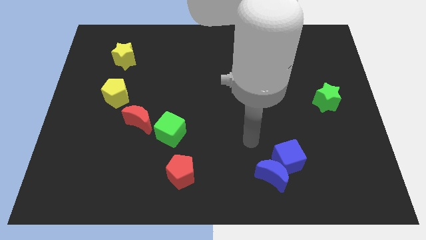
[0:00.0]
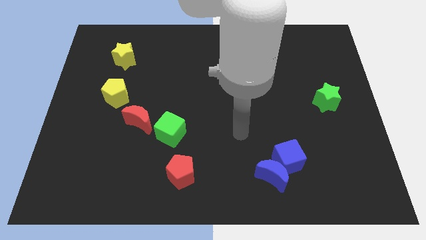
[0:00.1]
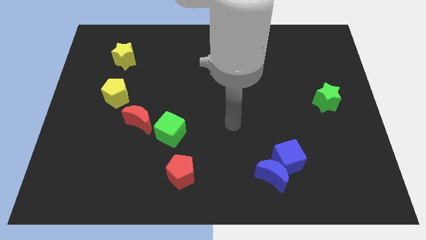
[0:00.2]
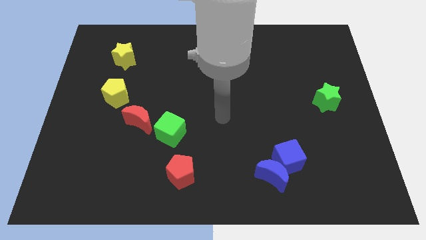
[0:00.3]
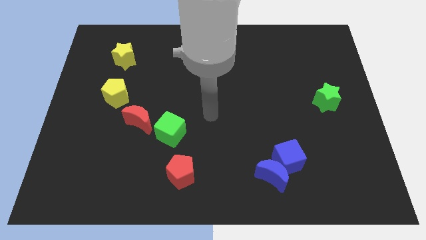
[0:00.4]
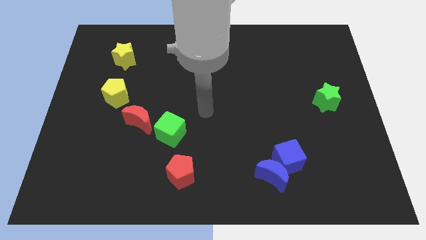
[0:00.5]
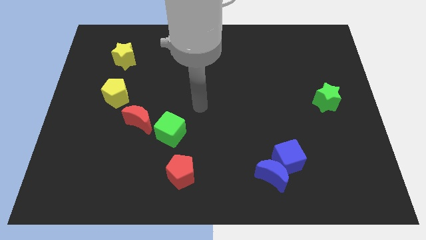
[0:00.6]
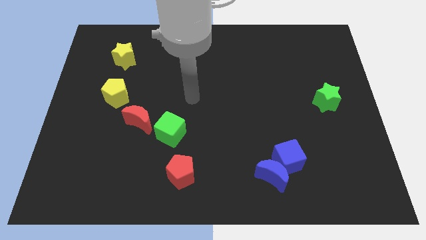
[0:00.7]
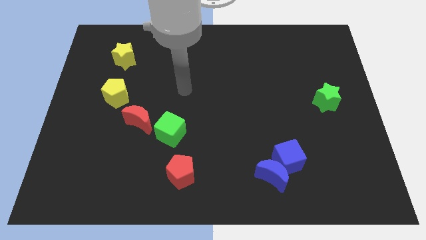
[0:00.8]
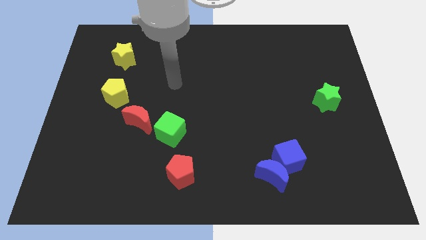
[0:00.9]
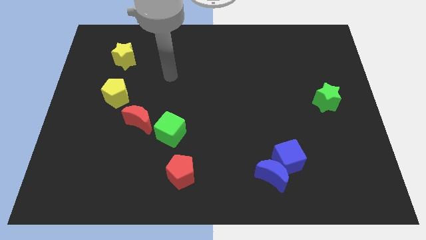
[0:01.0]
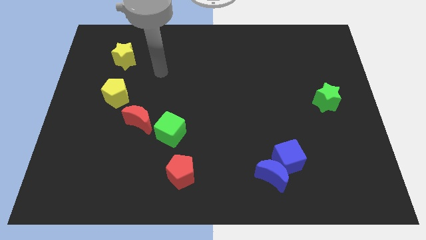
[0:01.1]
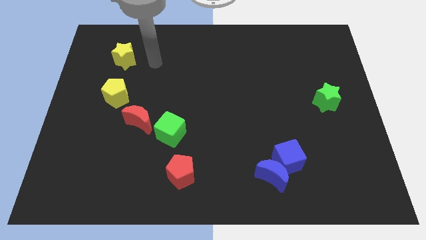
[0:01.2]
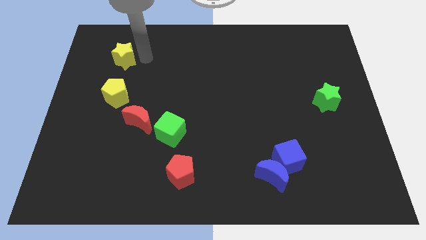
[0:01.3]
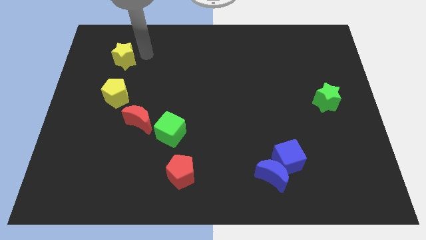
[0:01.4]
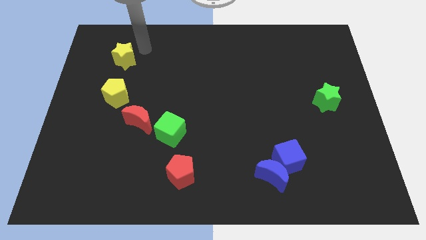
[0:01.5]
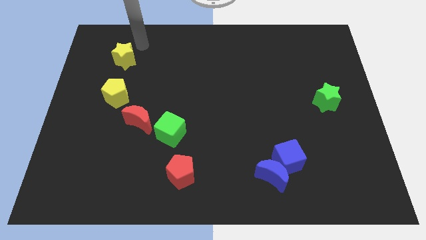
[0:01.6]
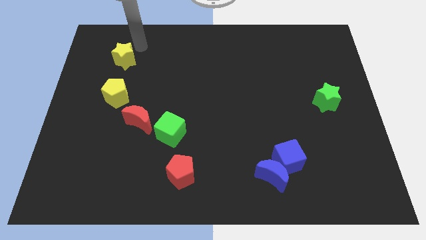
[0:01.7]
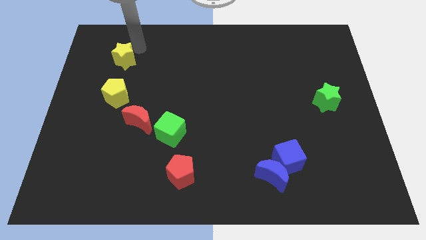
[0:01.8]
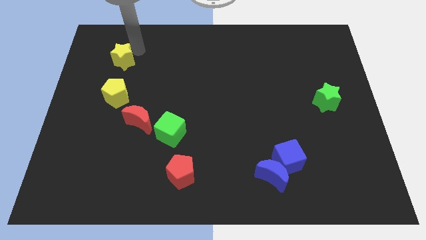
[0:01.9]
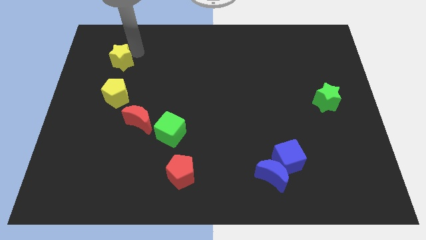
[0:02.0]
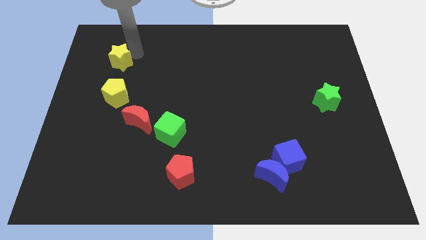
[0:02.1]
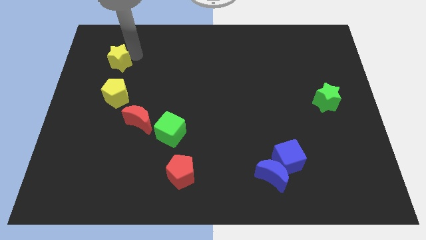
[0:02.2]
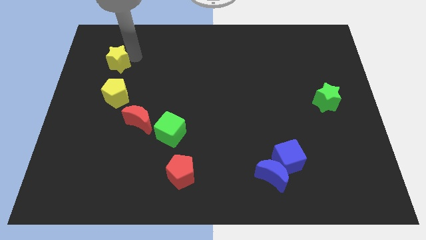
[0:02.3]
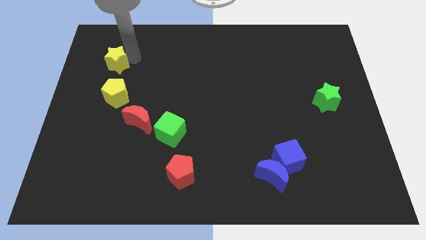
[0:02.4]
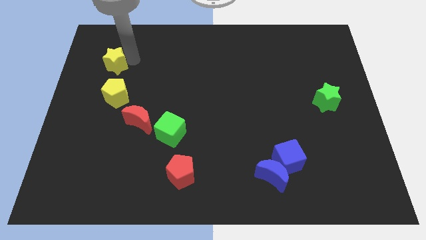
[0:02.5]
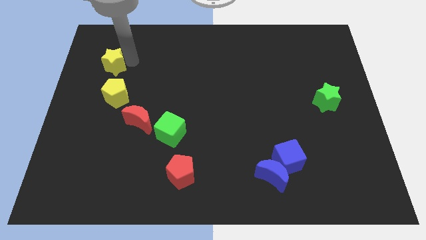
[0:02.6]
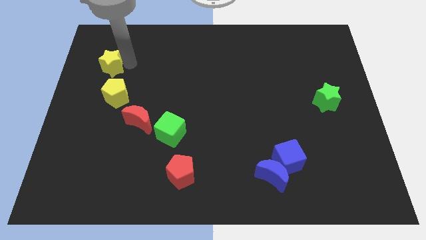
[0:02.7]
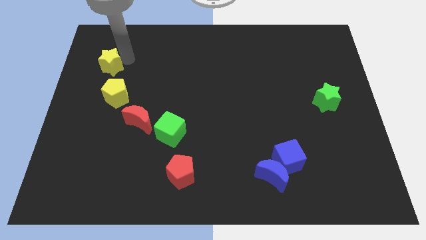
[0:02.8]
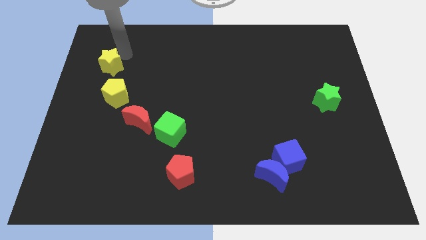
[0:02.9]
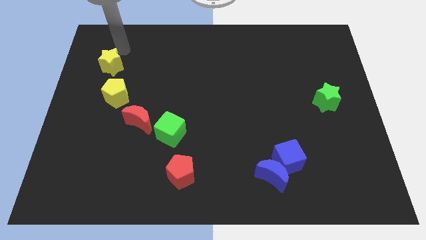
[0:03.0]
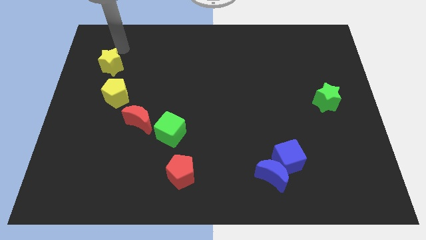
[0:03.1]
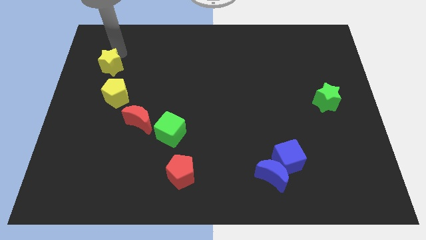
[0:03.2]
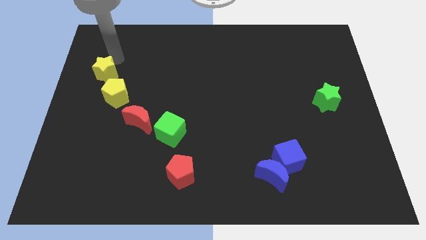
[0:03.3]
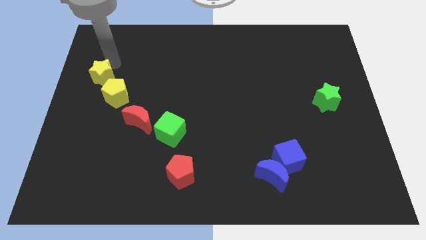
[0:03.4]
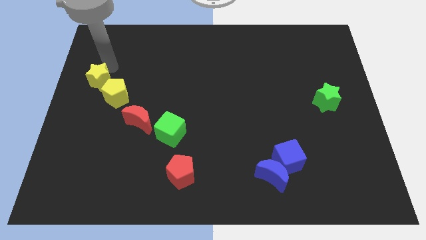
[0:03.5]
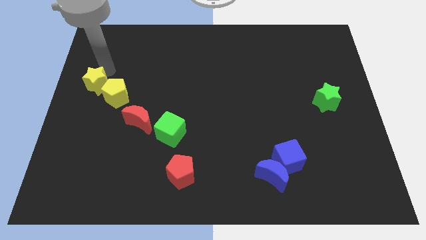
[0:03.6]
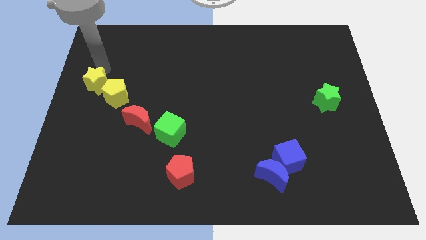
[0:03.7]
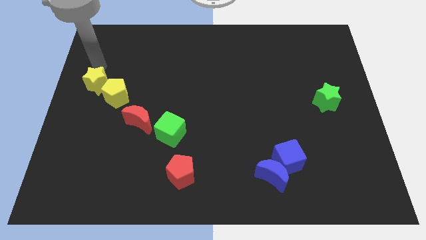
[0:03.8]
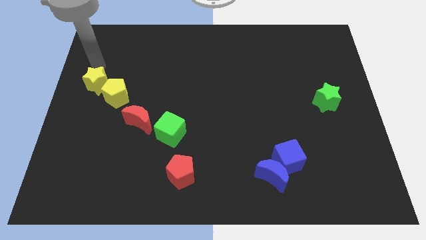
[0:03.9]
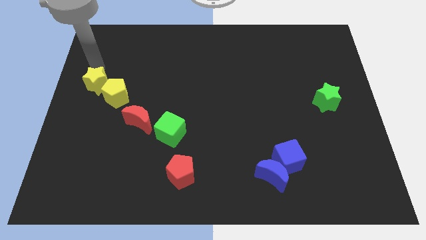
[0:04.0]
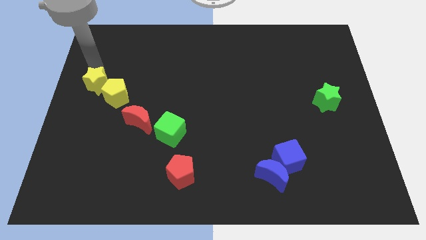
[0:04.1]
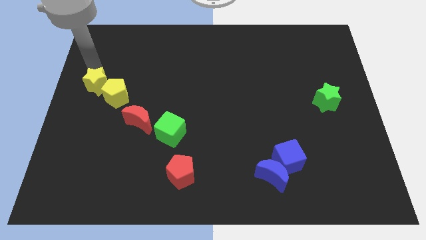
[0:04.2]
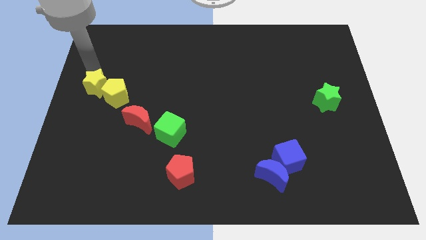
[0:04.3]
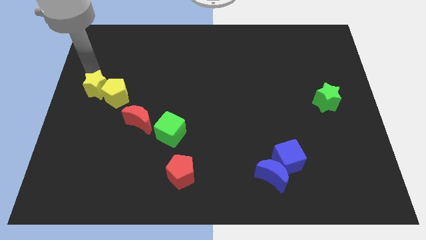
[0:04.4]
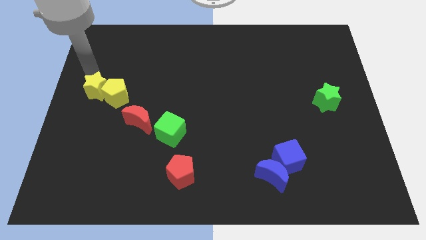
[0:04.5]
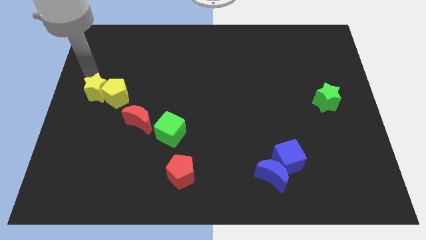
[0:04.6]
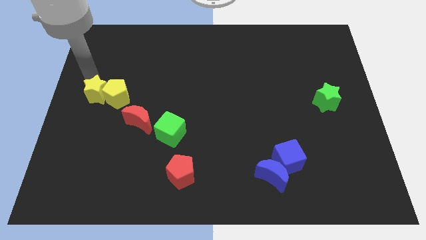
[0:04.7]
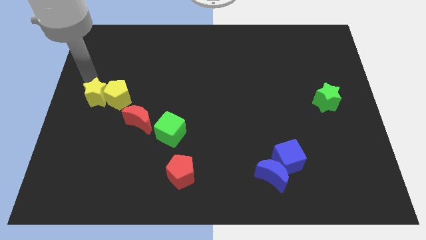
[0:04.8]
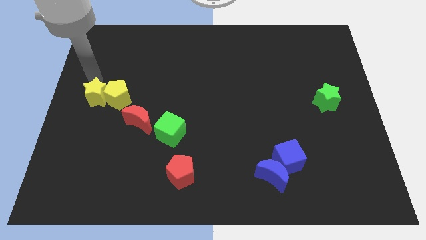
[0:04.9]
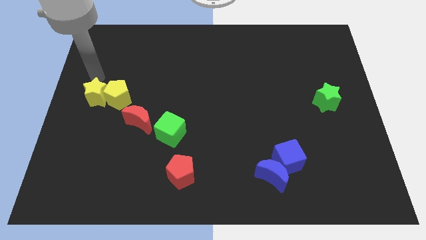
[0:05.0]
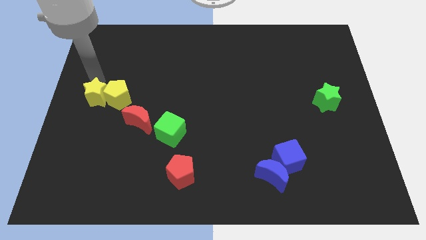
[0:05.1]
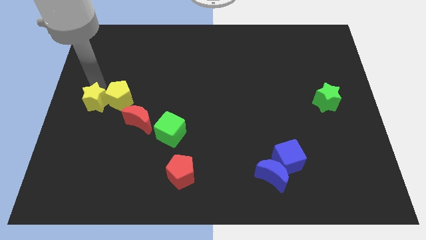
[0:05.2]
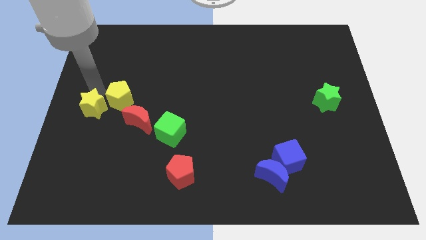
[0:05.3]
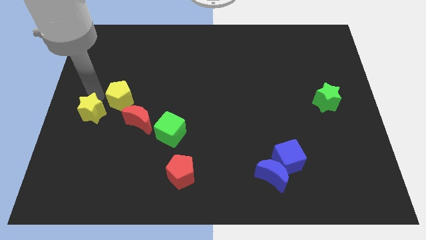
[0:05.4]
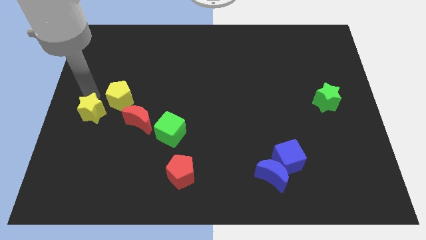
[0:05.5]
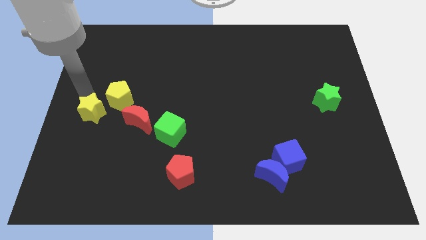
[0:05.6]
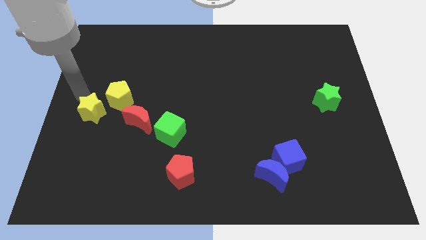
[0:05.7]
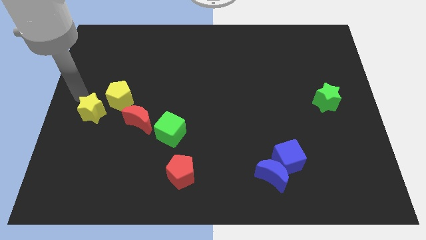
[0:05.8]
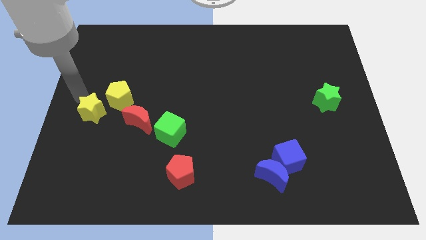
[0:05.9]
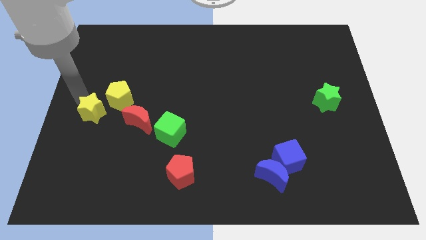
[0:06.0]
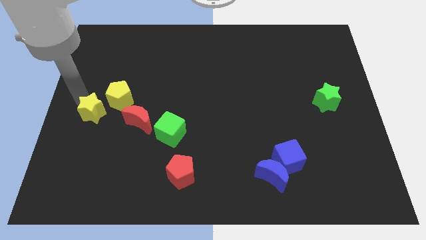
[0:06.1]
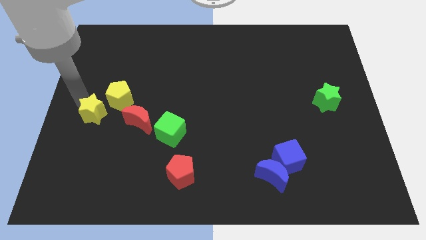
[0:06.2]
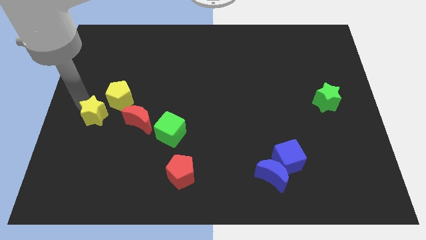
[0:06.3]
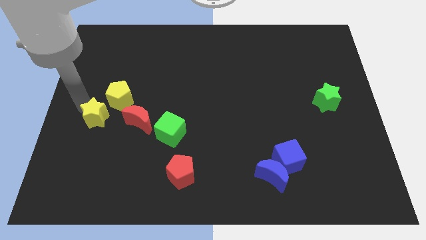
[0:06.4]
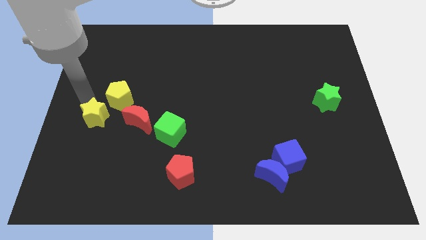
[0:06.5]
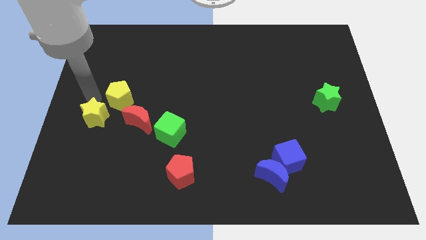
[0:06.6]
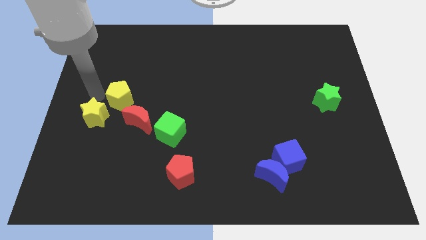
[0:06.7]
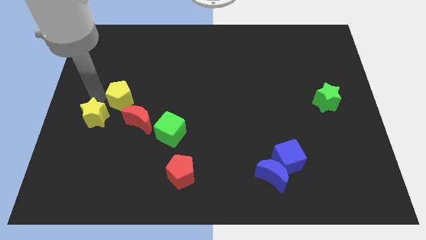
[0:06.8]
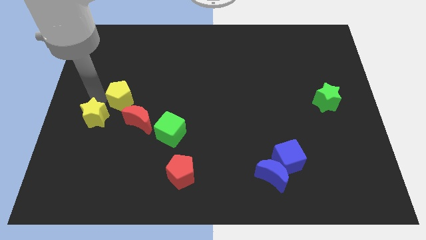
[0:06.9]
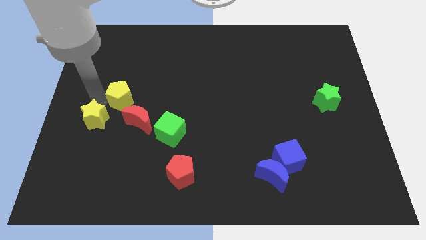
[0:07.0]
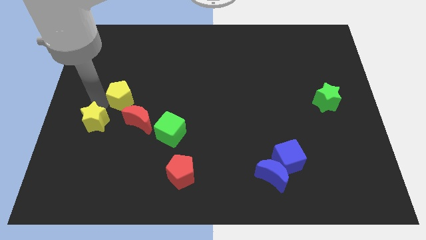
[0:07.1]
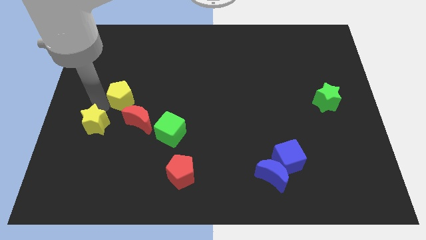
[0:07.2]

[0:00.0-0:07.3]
slide the yellow star down

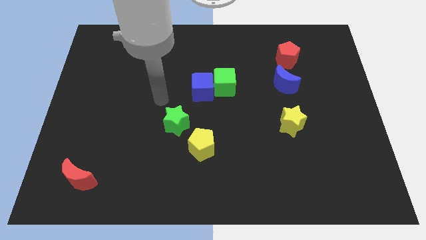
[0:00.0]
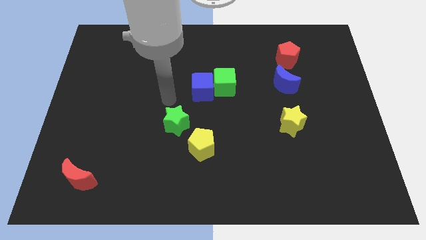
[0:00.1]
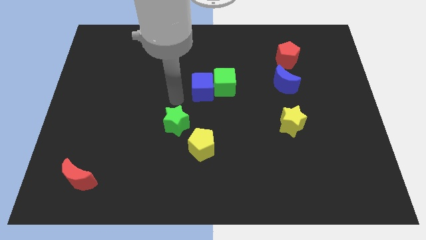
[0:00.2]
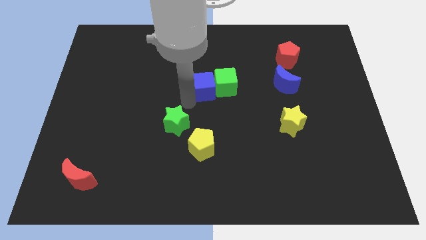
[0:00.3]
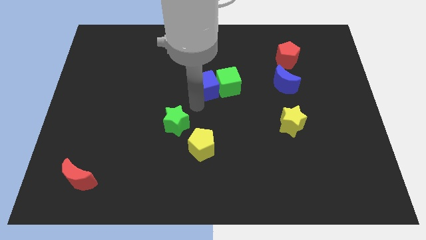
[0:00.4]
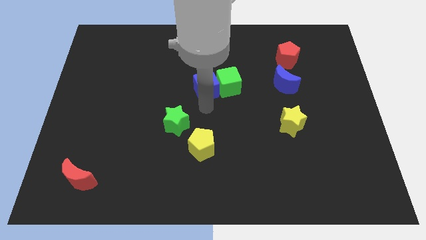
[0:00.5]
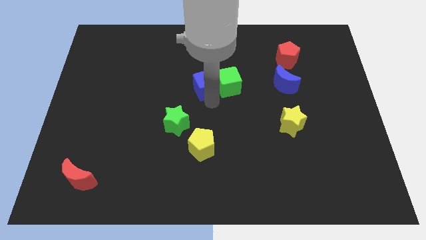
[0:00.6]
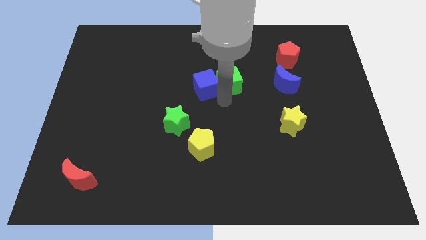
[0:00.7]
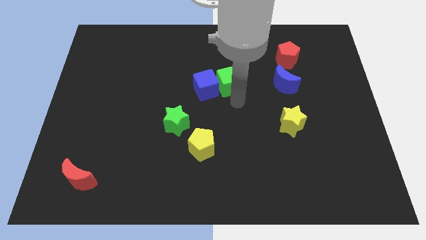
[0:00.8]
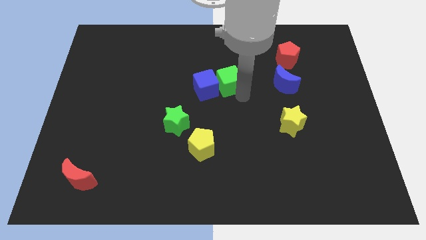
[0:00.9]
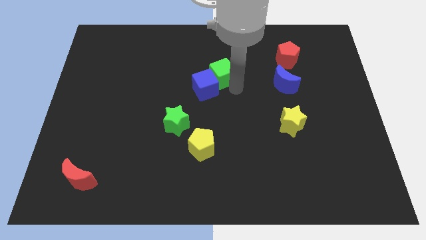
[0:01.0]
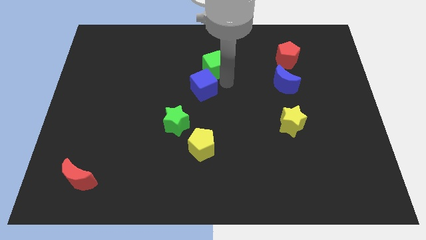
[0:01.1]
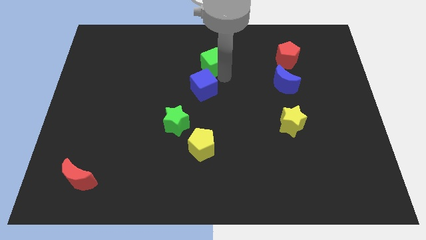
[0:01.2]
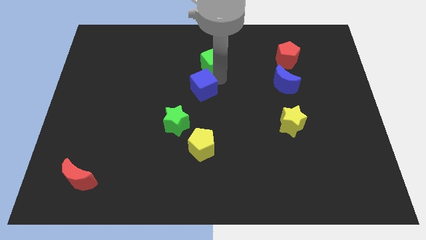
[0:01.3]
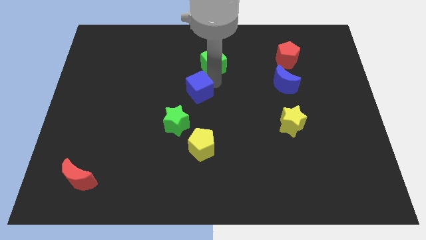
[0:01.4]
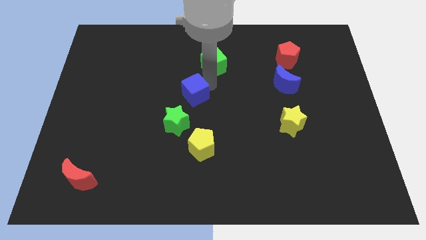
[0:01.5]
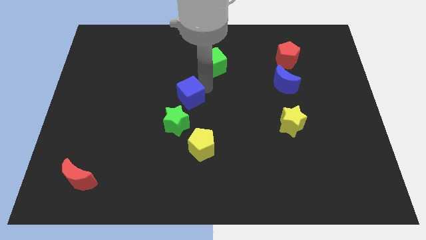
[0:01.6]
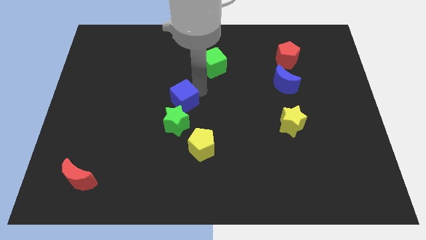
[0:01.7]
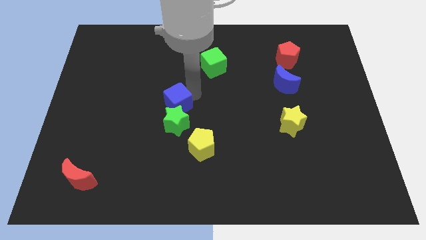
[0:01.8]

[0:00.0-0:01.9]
slightly move the blue cube down and to the left
